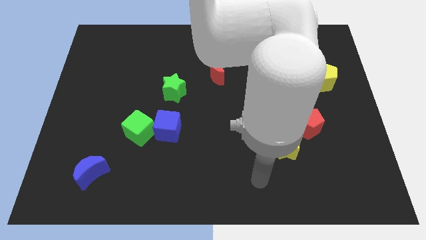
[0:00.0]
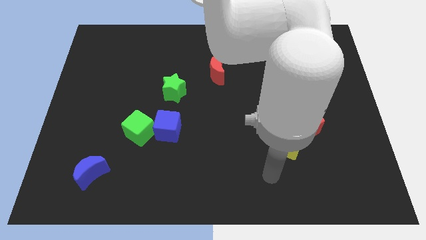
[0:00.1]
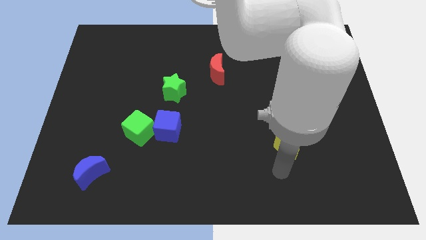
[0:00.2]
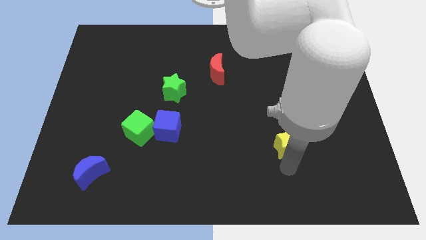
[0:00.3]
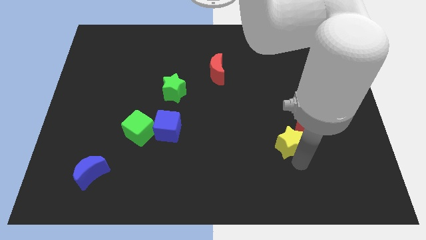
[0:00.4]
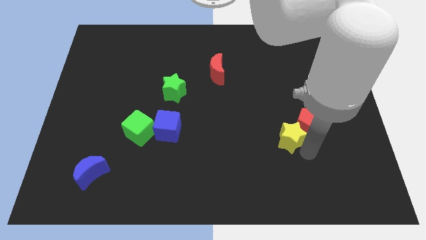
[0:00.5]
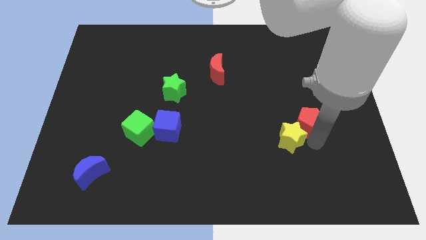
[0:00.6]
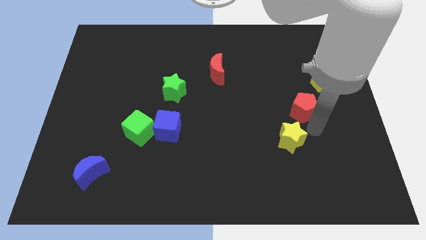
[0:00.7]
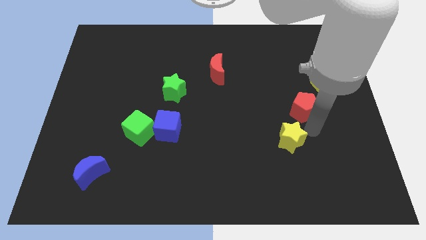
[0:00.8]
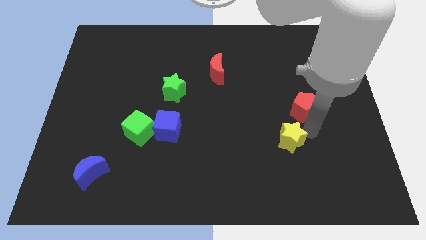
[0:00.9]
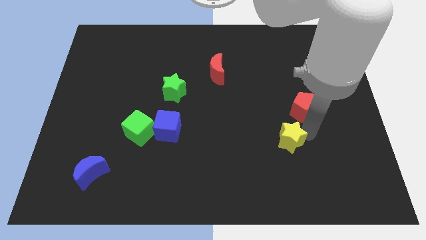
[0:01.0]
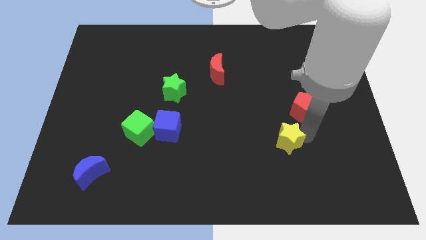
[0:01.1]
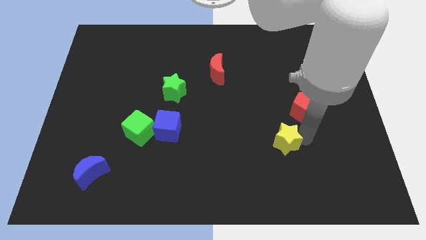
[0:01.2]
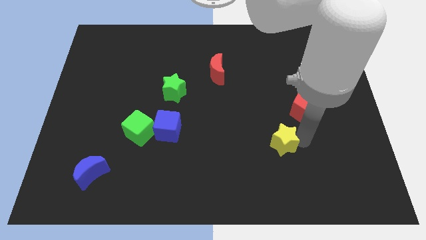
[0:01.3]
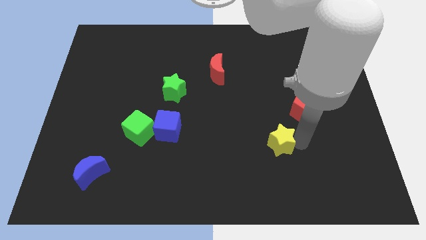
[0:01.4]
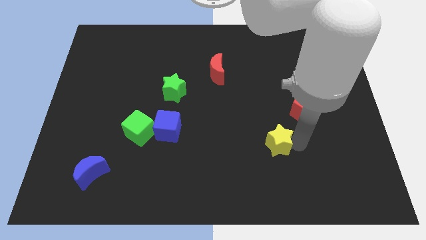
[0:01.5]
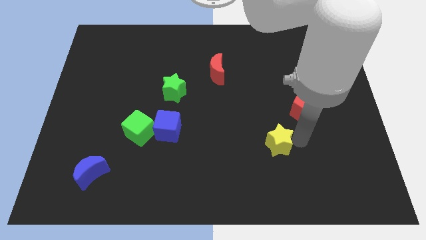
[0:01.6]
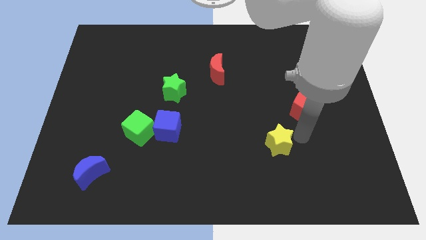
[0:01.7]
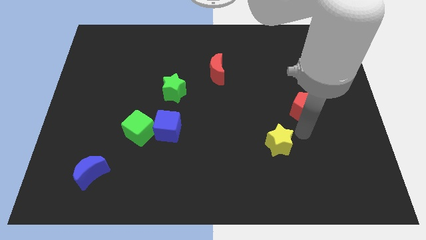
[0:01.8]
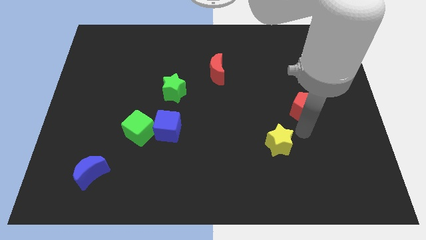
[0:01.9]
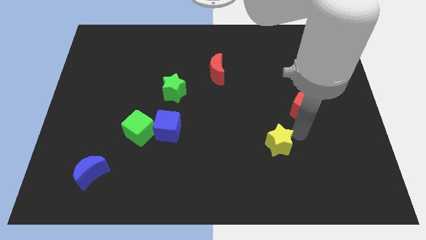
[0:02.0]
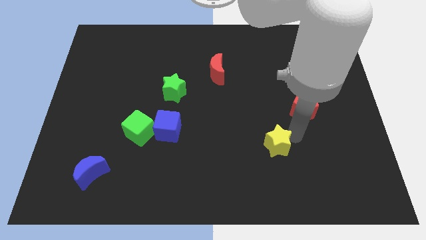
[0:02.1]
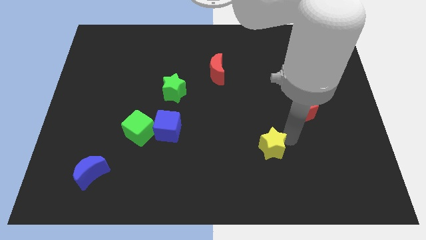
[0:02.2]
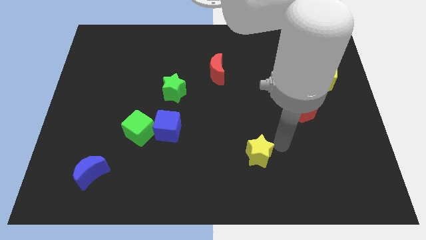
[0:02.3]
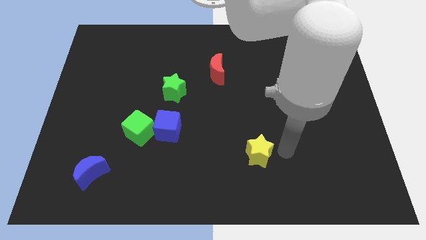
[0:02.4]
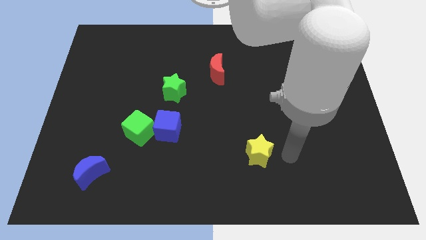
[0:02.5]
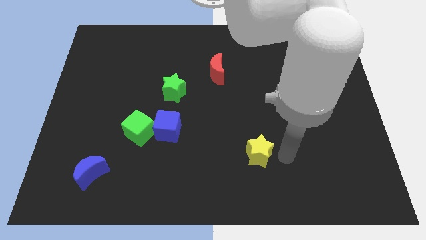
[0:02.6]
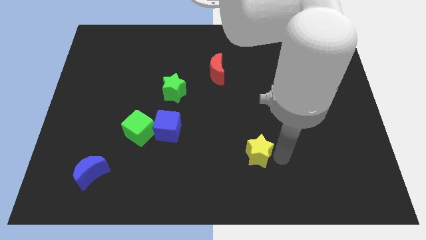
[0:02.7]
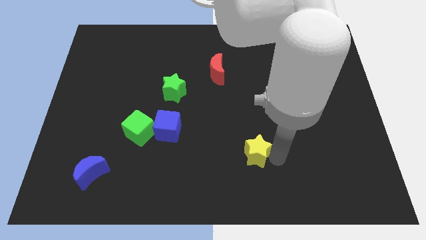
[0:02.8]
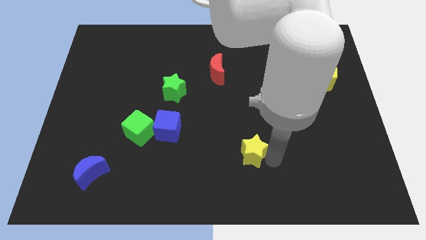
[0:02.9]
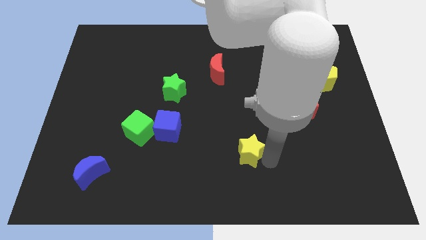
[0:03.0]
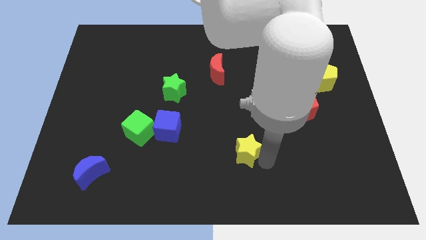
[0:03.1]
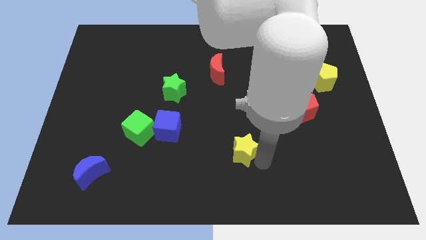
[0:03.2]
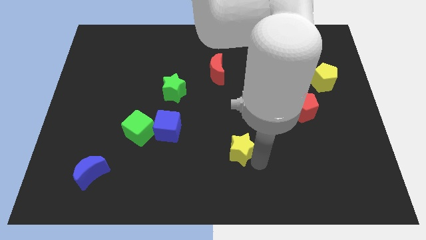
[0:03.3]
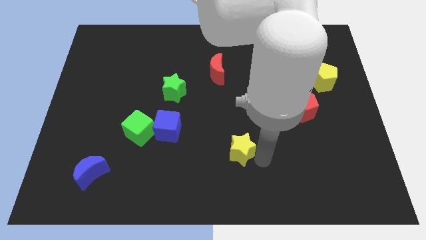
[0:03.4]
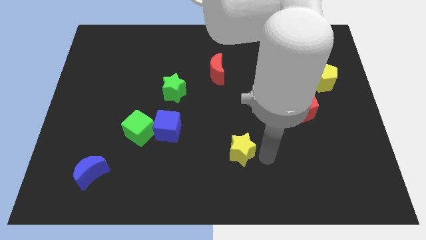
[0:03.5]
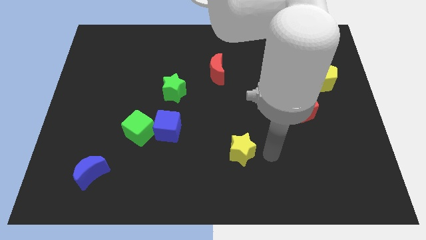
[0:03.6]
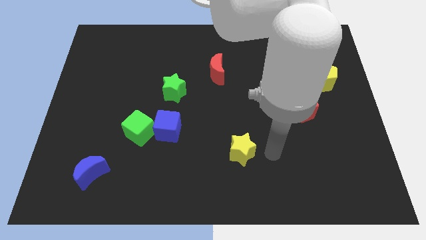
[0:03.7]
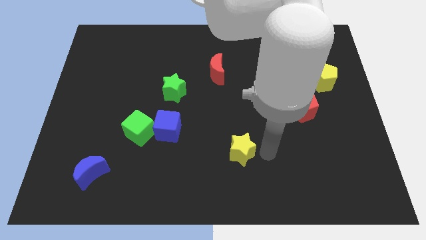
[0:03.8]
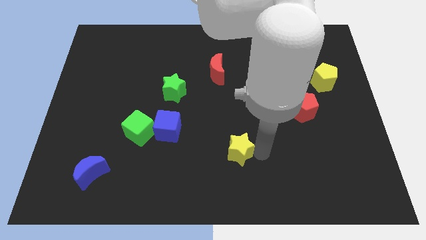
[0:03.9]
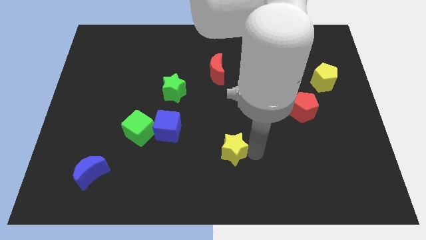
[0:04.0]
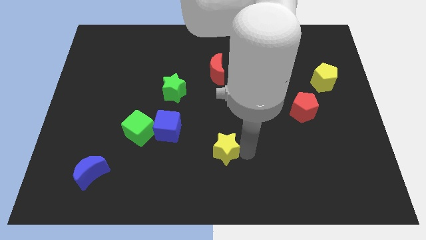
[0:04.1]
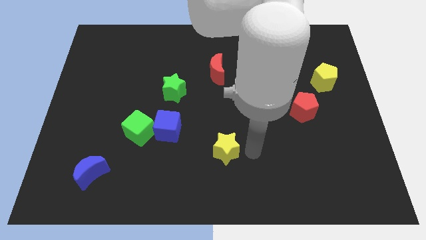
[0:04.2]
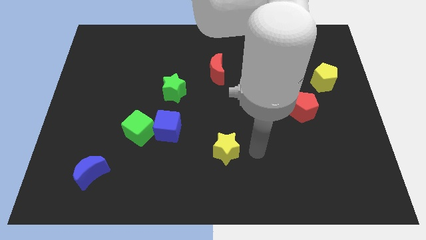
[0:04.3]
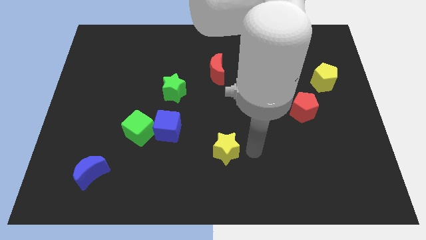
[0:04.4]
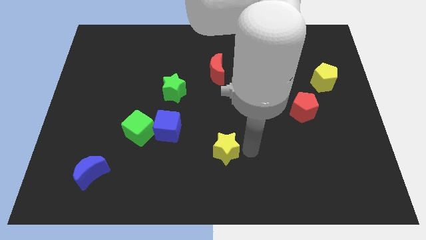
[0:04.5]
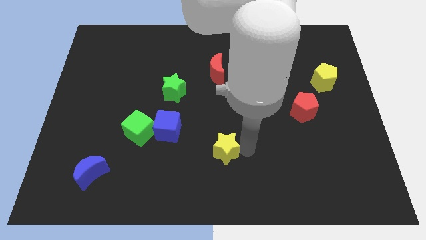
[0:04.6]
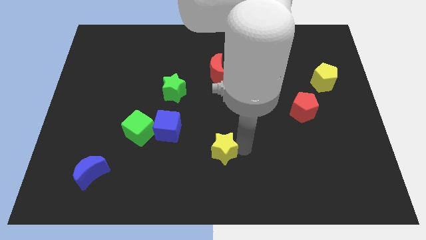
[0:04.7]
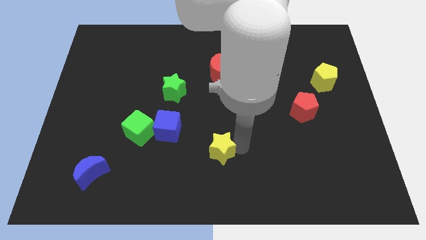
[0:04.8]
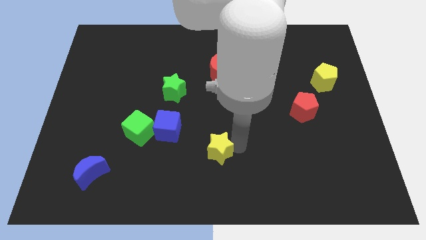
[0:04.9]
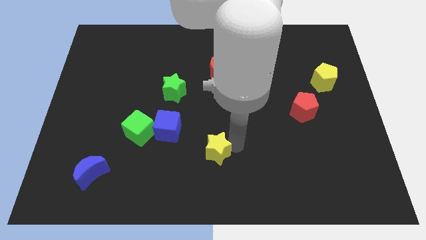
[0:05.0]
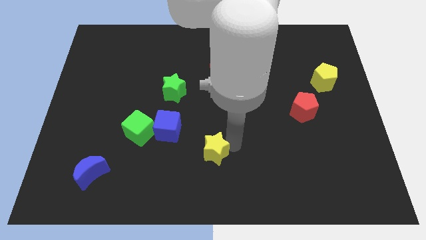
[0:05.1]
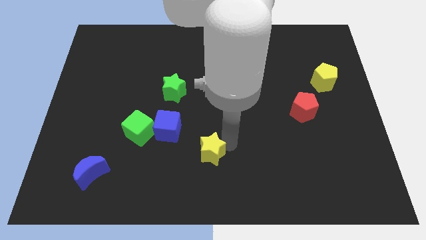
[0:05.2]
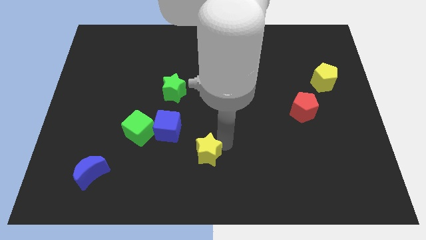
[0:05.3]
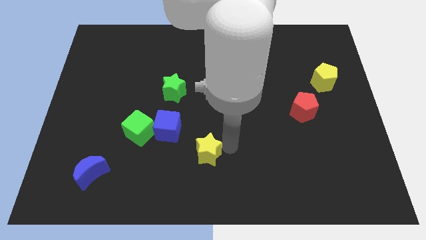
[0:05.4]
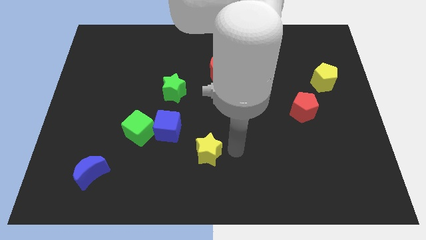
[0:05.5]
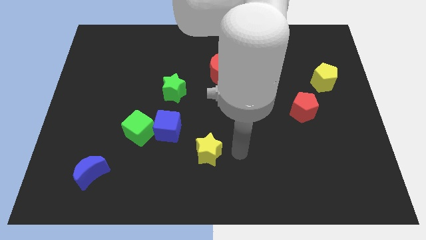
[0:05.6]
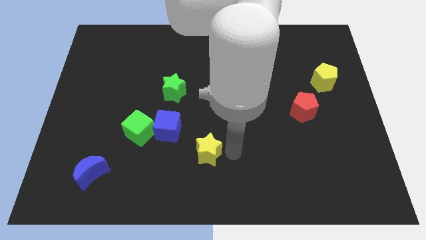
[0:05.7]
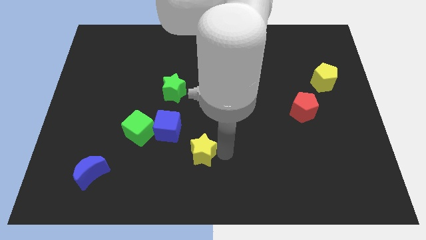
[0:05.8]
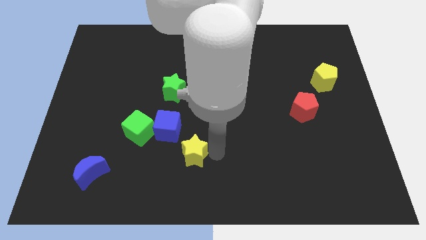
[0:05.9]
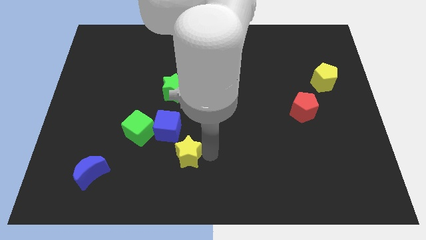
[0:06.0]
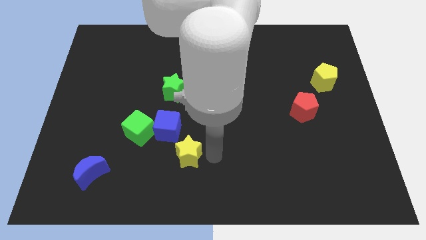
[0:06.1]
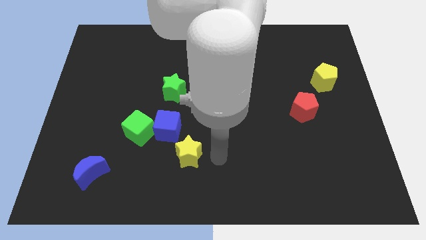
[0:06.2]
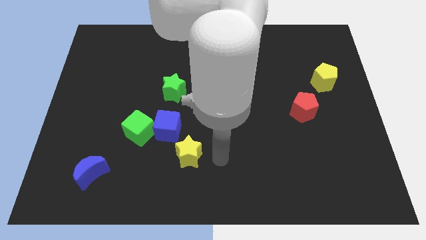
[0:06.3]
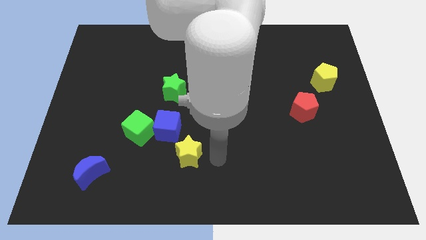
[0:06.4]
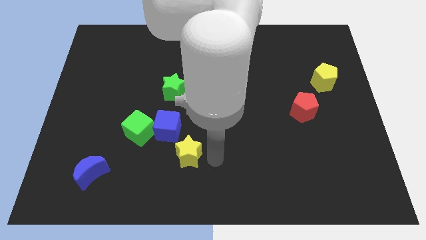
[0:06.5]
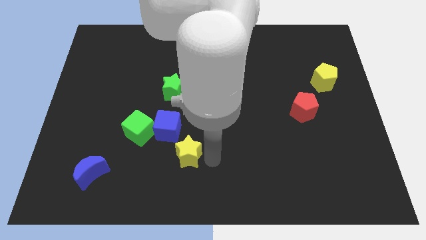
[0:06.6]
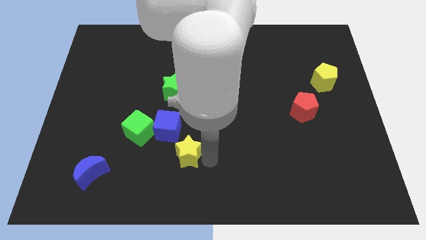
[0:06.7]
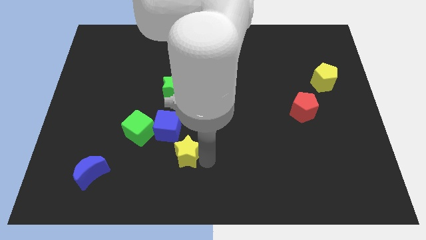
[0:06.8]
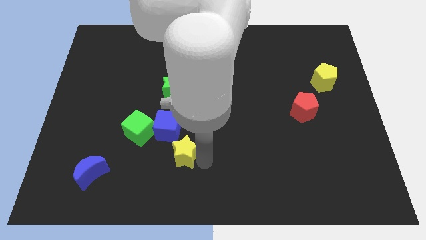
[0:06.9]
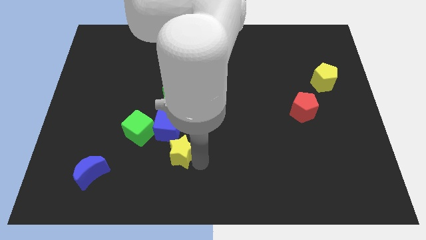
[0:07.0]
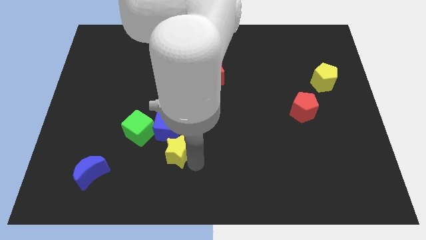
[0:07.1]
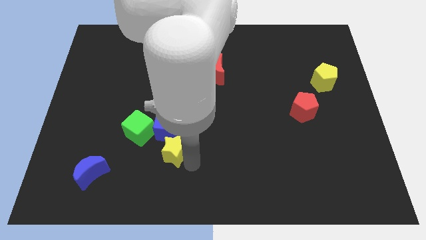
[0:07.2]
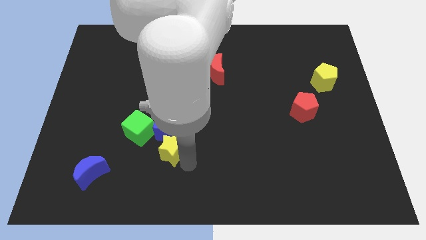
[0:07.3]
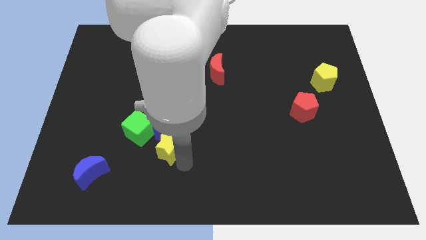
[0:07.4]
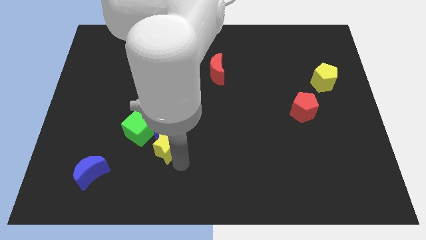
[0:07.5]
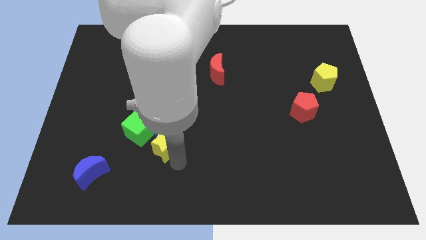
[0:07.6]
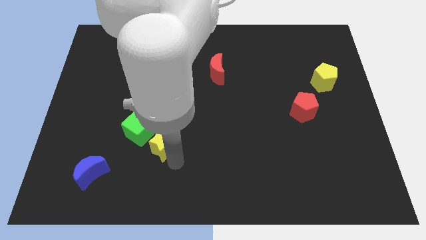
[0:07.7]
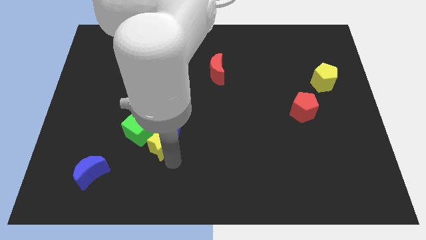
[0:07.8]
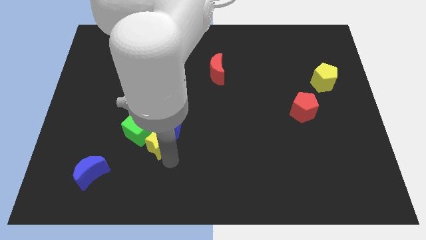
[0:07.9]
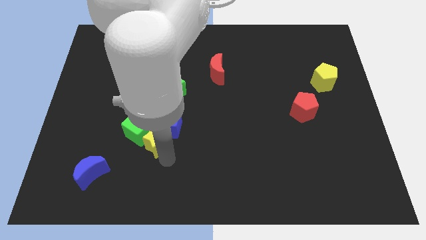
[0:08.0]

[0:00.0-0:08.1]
slide the yellow star next to the green cube
